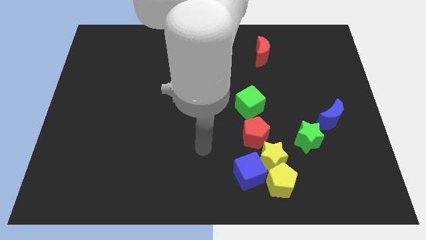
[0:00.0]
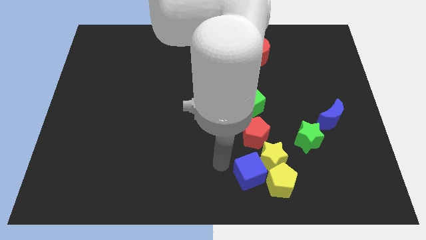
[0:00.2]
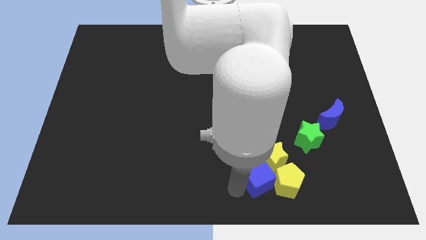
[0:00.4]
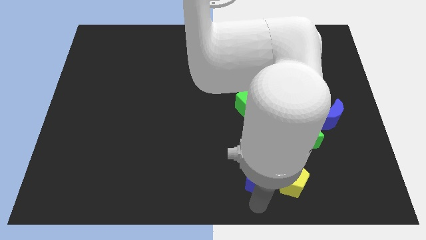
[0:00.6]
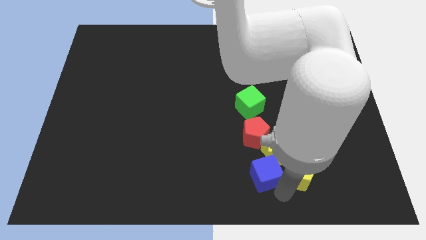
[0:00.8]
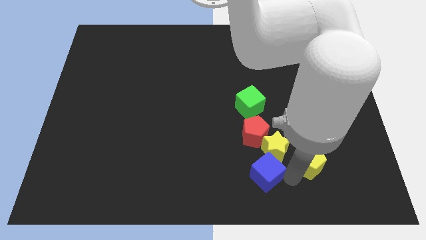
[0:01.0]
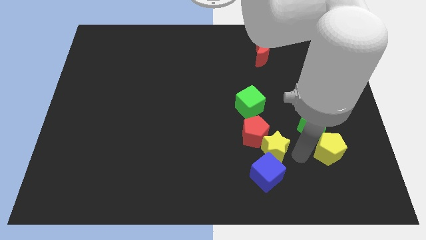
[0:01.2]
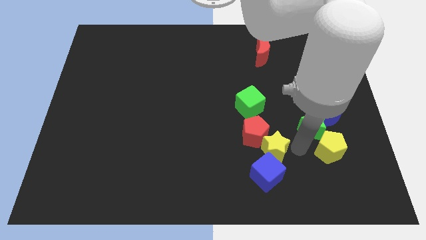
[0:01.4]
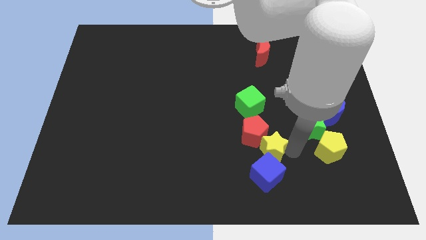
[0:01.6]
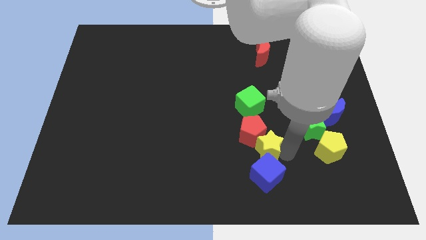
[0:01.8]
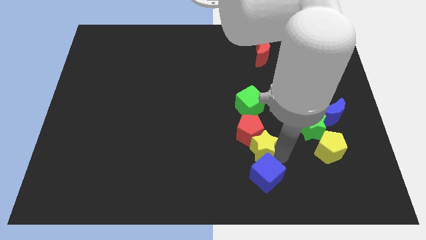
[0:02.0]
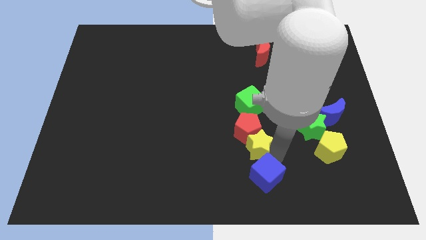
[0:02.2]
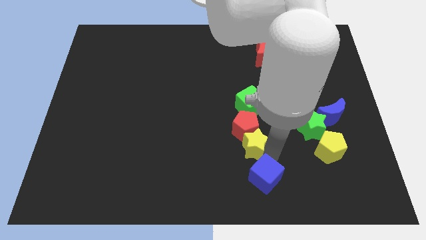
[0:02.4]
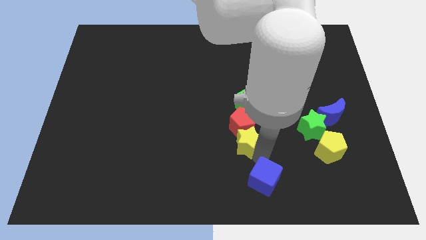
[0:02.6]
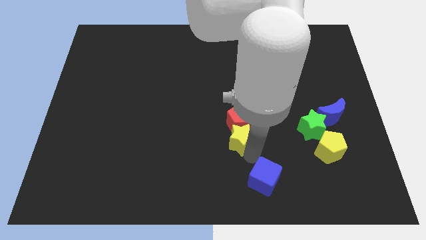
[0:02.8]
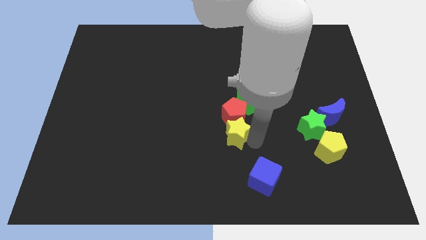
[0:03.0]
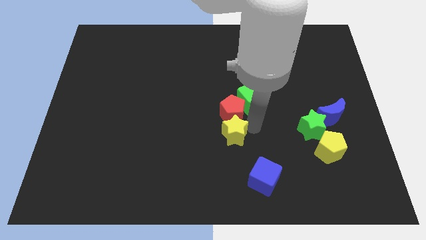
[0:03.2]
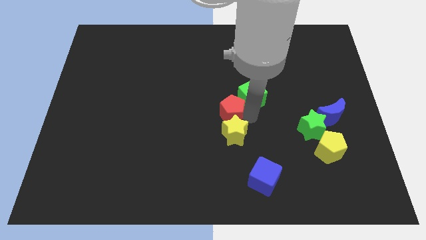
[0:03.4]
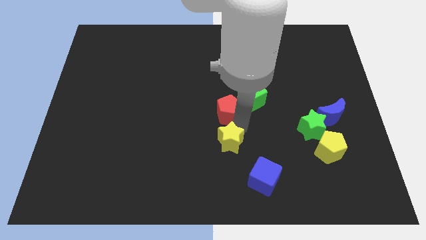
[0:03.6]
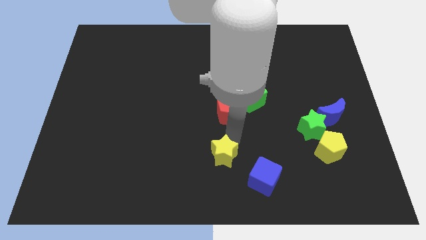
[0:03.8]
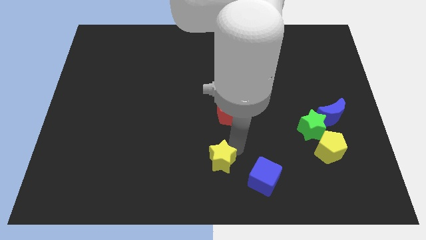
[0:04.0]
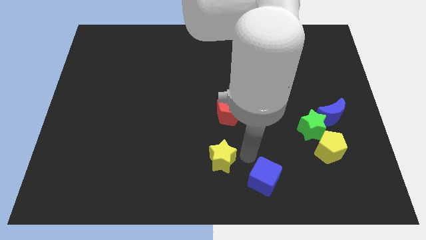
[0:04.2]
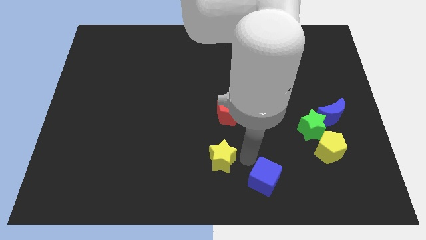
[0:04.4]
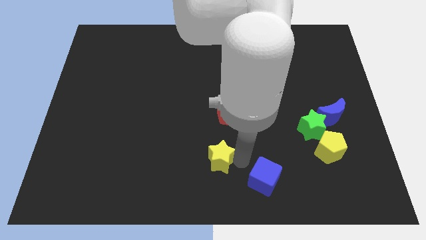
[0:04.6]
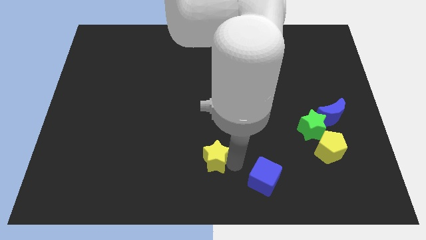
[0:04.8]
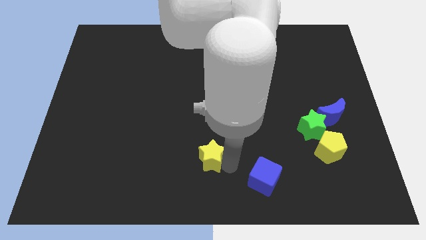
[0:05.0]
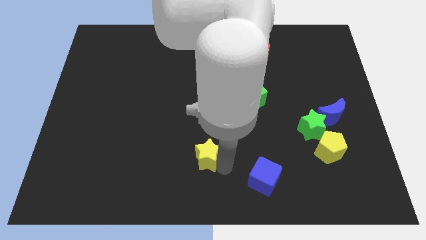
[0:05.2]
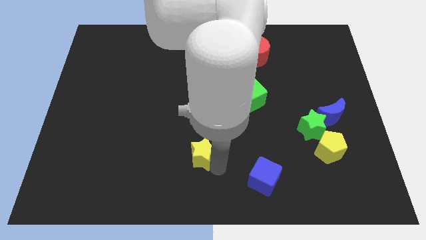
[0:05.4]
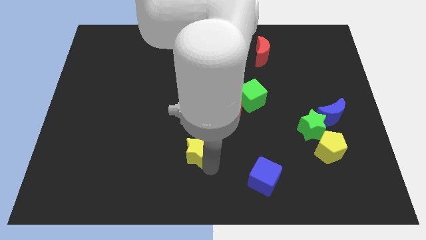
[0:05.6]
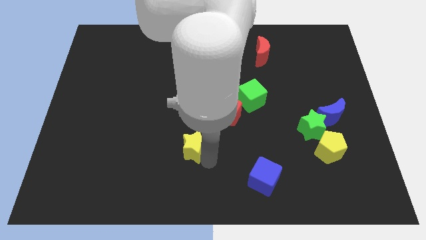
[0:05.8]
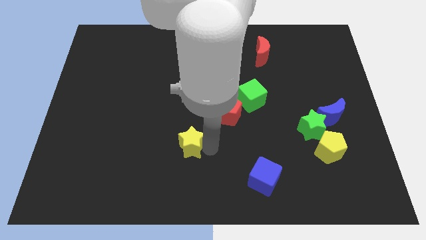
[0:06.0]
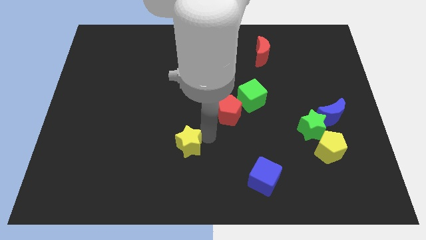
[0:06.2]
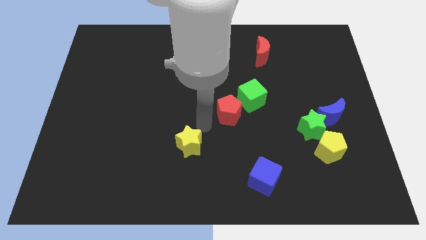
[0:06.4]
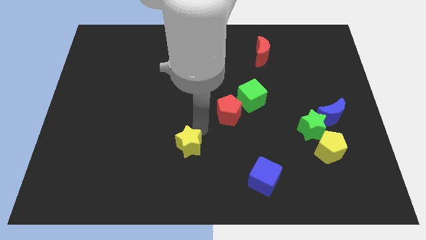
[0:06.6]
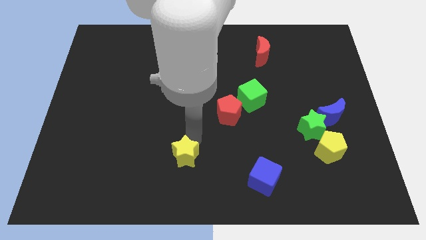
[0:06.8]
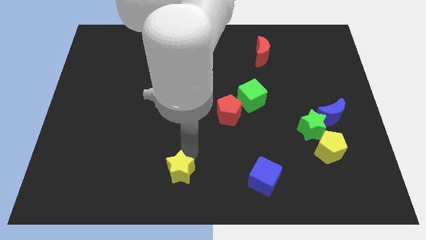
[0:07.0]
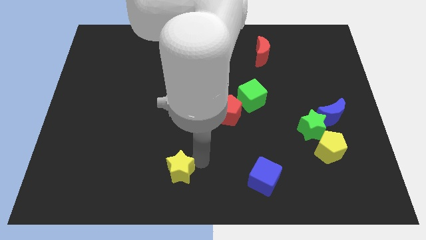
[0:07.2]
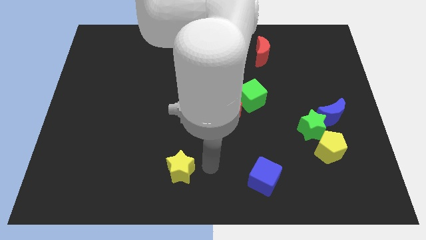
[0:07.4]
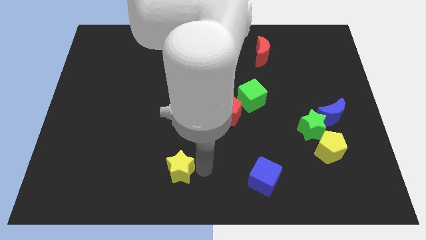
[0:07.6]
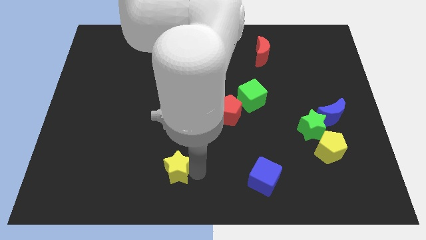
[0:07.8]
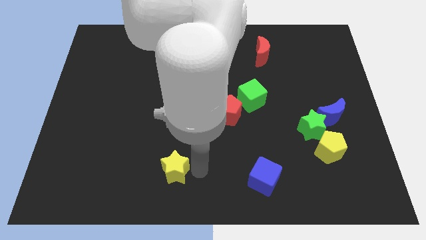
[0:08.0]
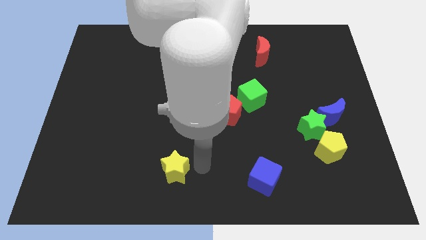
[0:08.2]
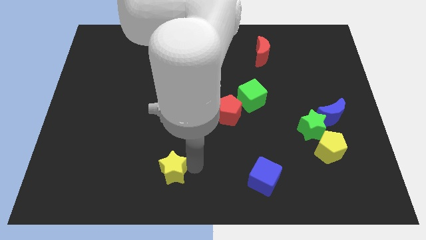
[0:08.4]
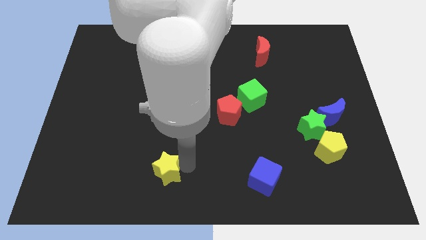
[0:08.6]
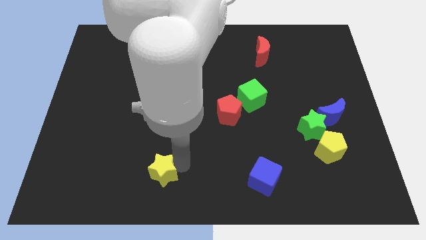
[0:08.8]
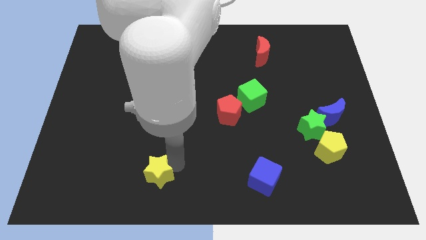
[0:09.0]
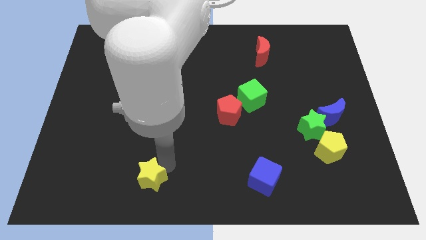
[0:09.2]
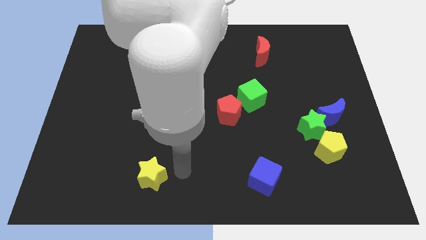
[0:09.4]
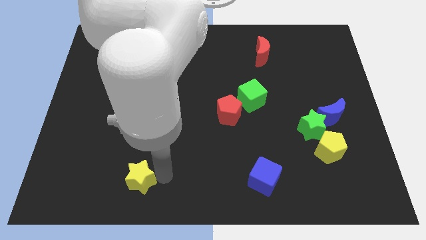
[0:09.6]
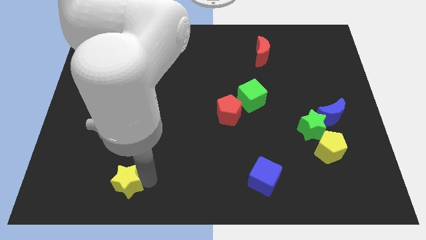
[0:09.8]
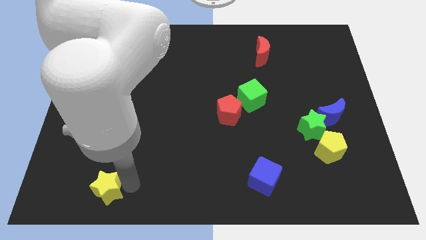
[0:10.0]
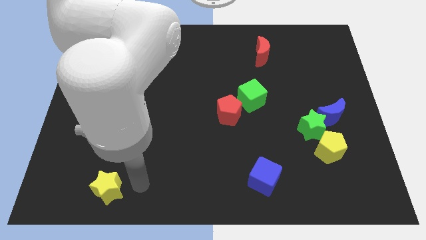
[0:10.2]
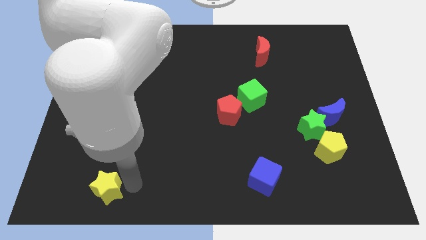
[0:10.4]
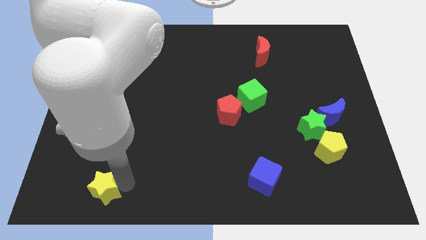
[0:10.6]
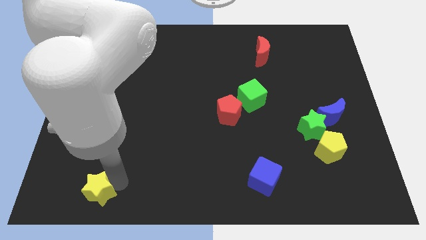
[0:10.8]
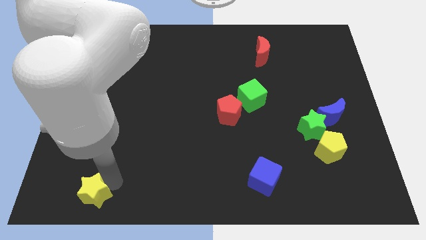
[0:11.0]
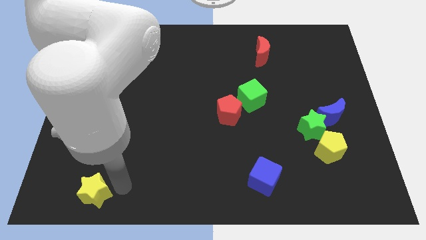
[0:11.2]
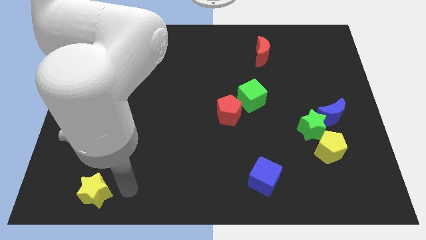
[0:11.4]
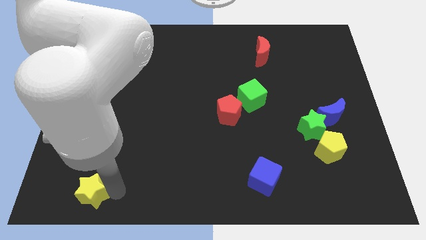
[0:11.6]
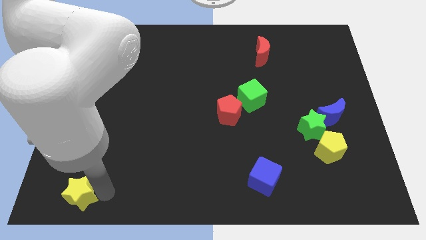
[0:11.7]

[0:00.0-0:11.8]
put the yellow star to the bottom left corner

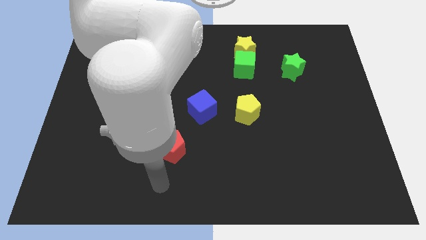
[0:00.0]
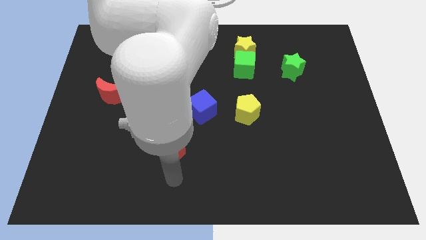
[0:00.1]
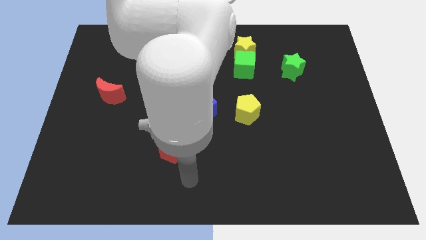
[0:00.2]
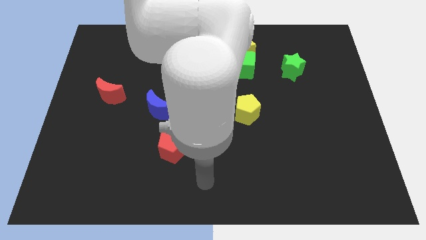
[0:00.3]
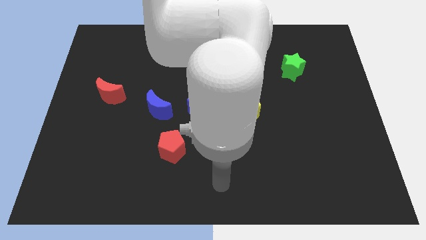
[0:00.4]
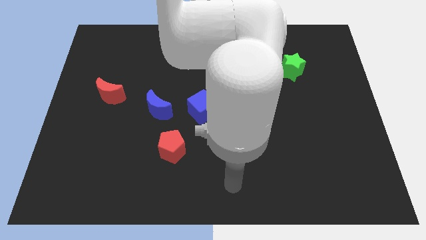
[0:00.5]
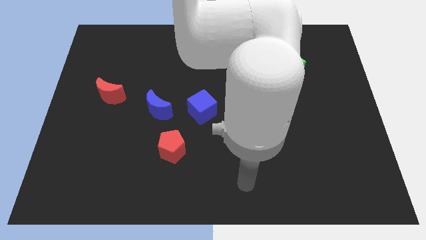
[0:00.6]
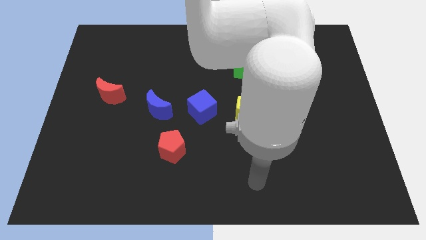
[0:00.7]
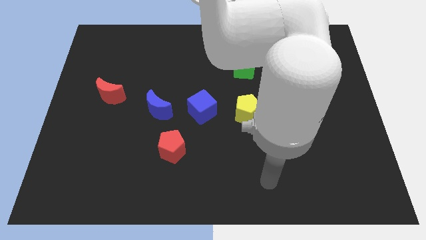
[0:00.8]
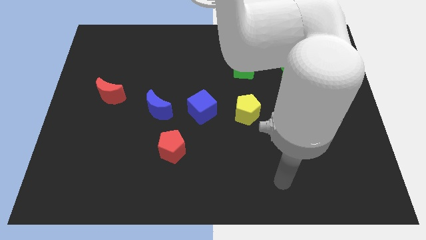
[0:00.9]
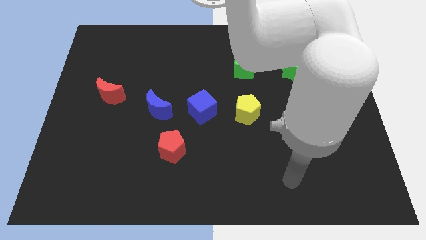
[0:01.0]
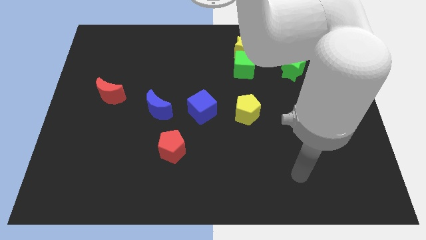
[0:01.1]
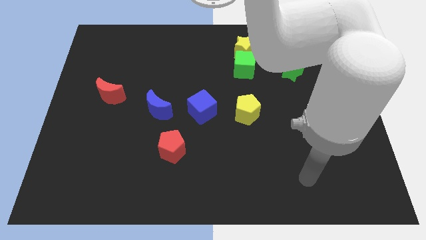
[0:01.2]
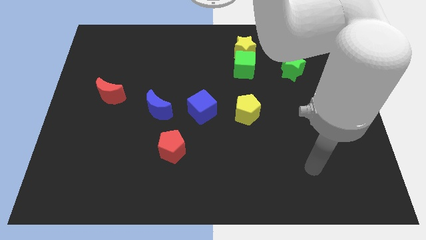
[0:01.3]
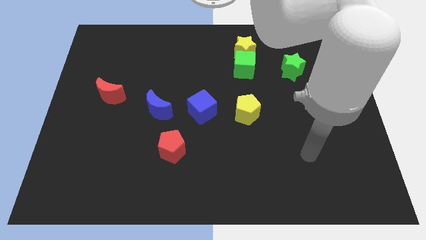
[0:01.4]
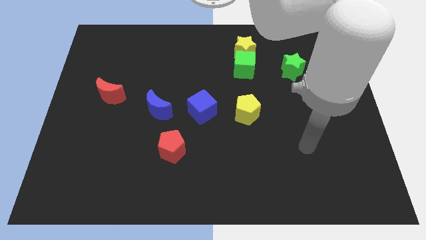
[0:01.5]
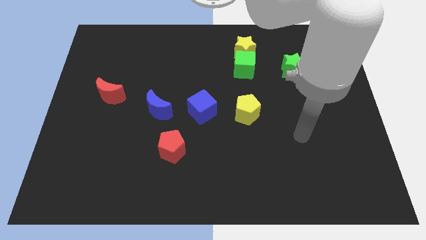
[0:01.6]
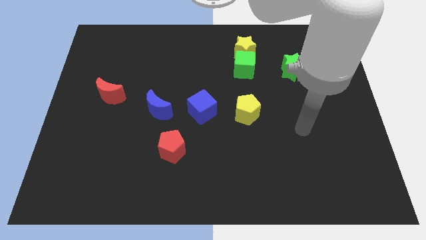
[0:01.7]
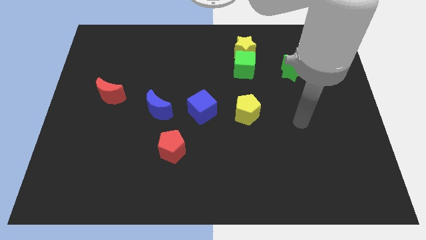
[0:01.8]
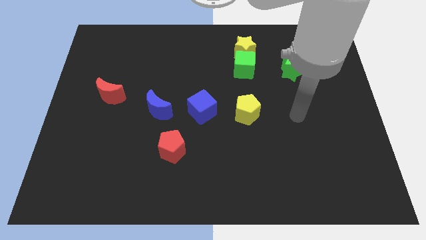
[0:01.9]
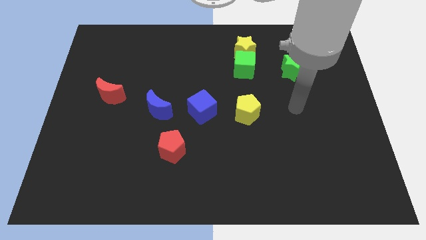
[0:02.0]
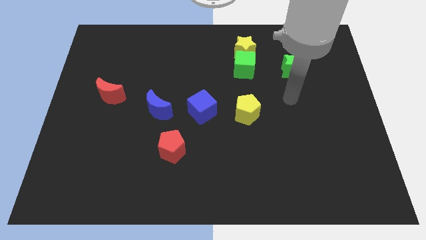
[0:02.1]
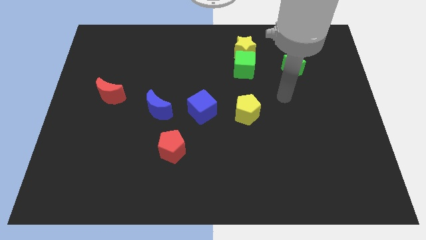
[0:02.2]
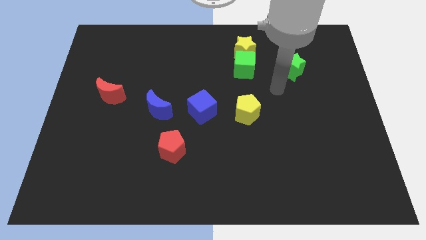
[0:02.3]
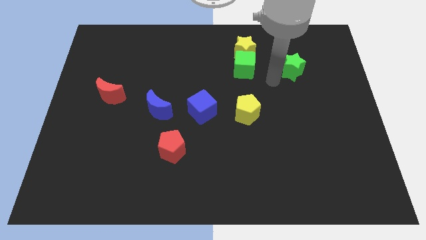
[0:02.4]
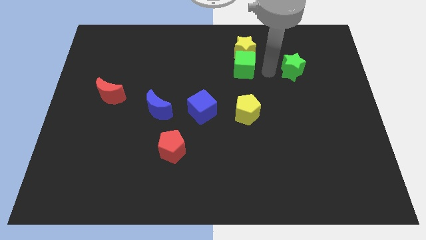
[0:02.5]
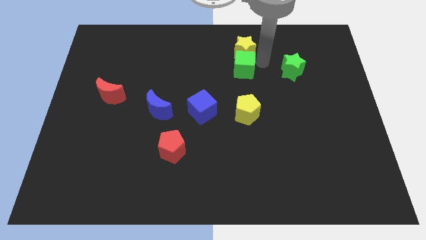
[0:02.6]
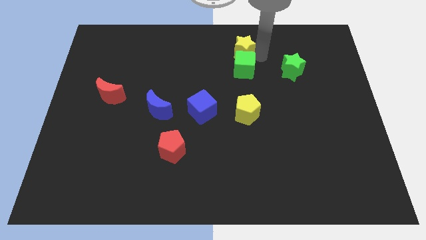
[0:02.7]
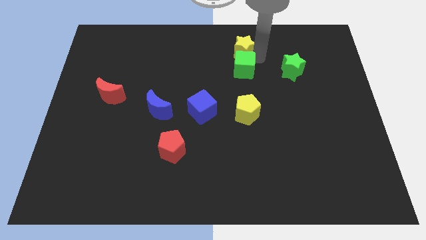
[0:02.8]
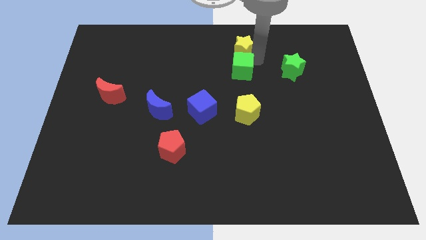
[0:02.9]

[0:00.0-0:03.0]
move the green cube to the center of the board
